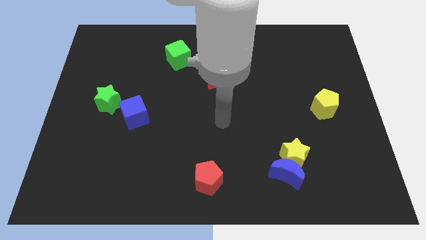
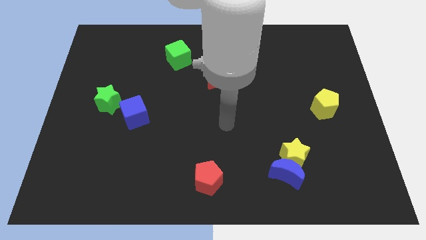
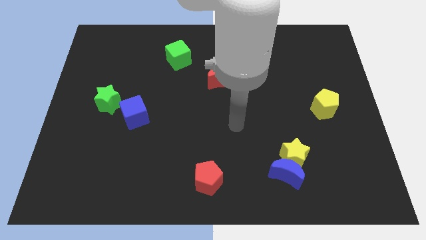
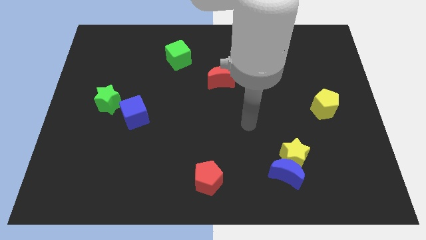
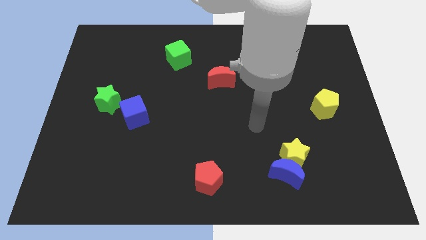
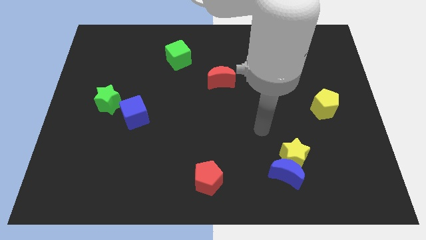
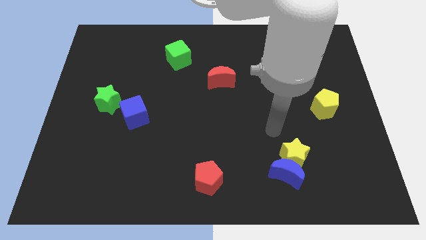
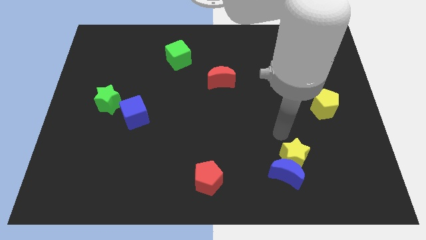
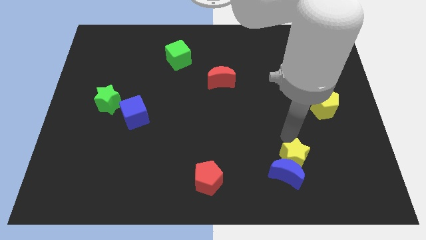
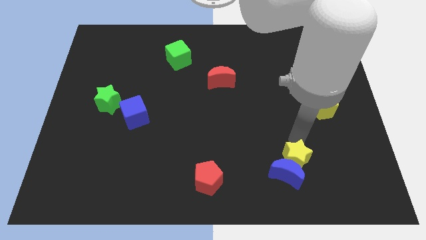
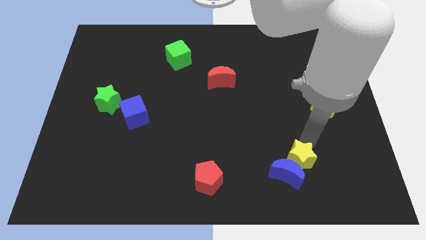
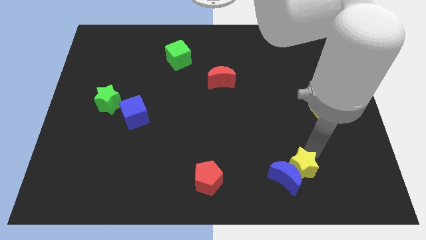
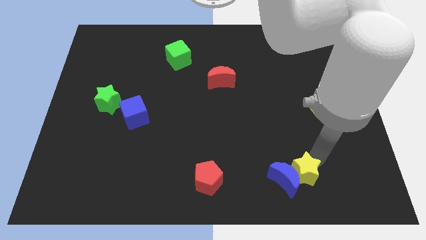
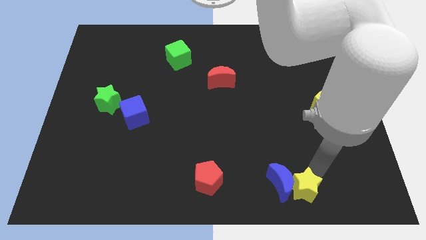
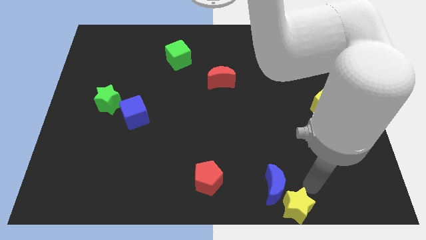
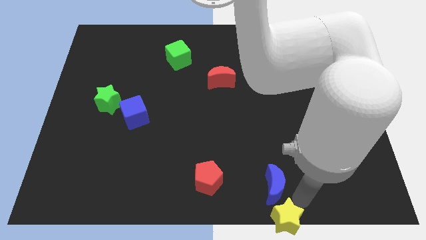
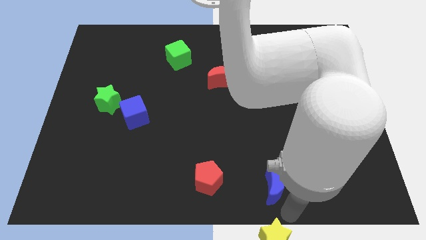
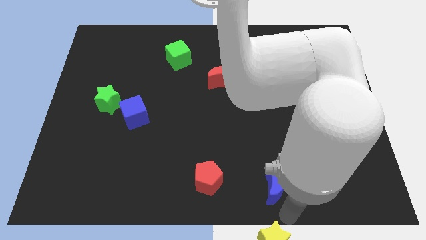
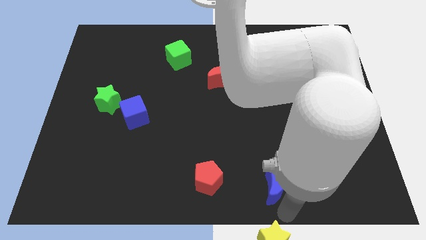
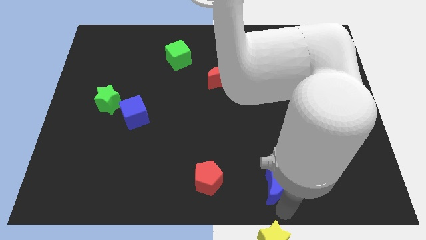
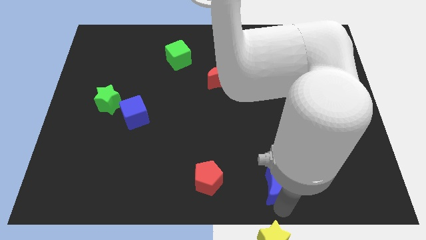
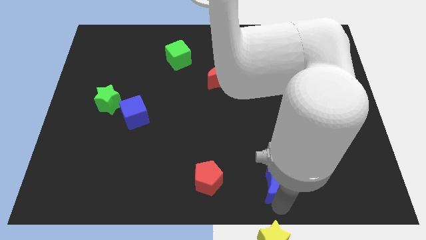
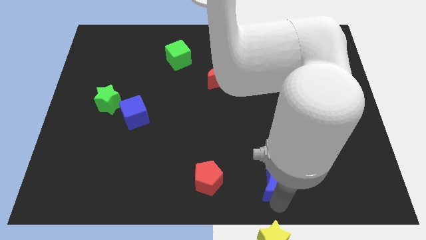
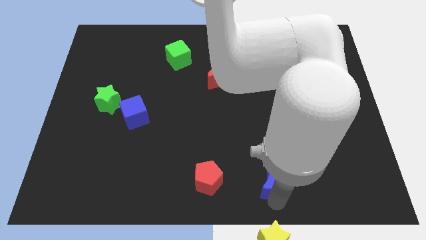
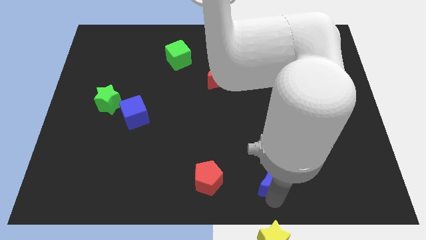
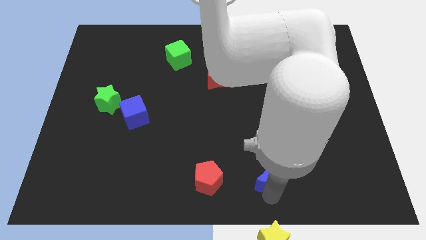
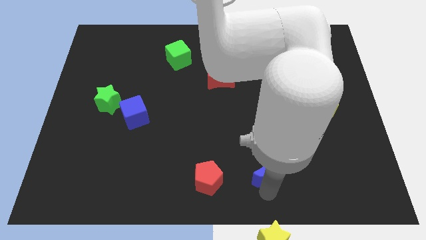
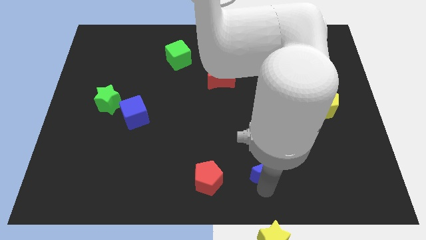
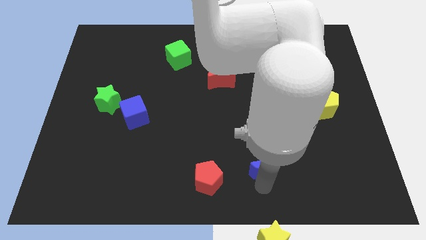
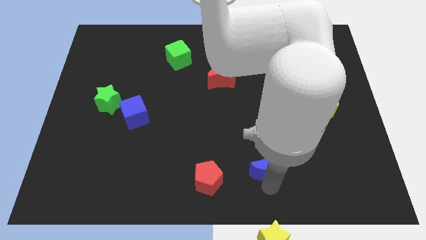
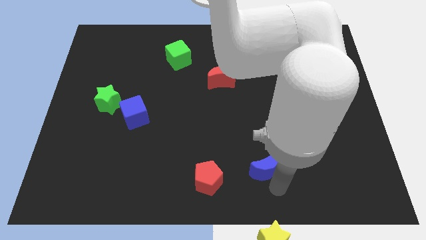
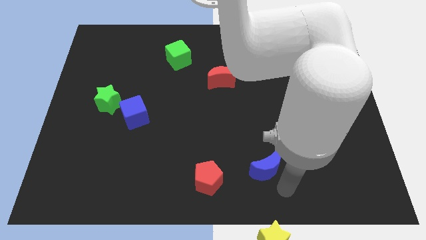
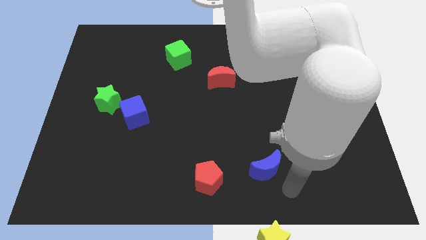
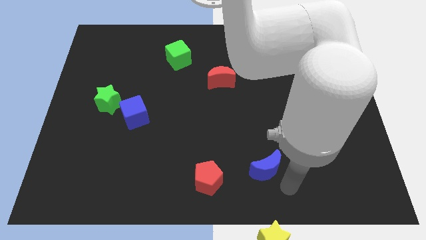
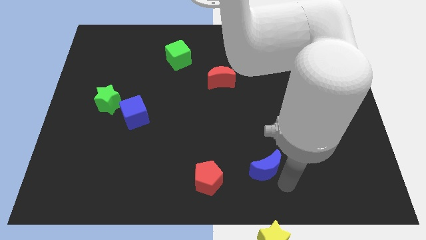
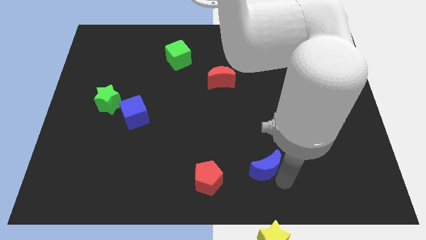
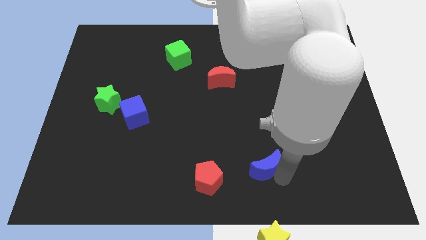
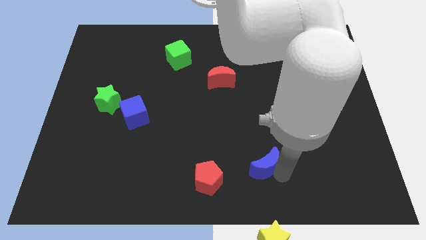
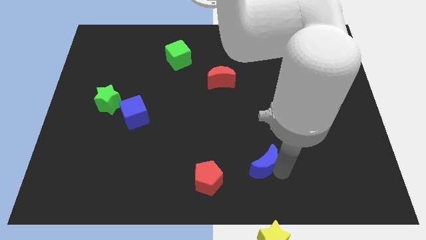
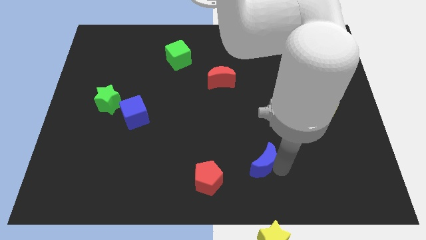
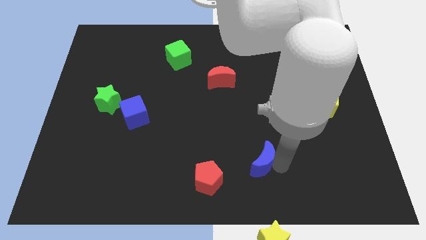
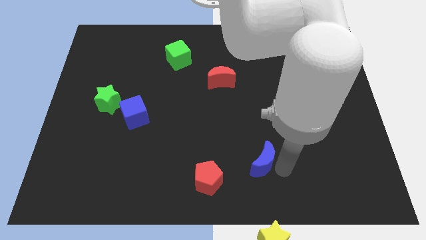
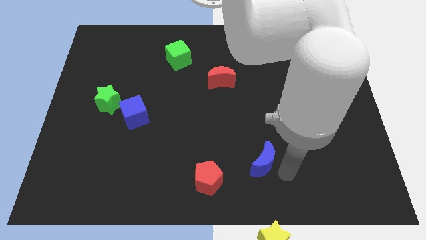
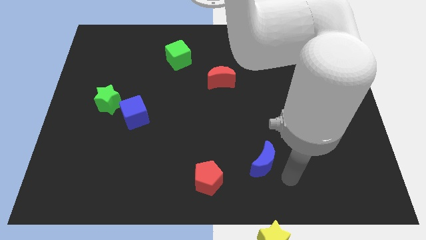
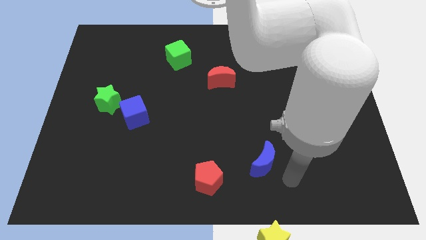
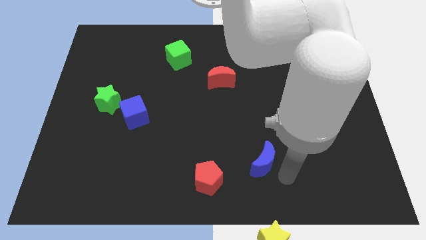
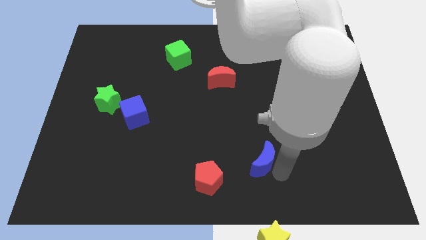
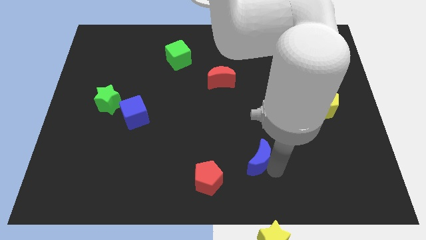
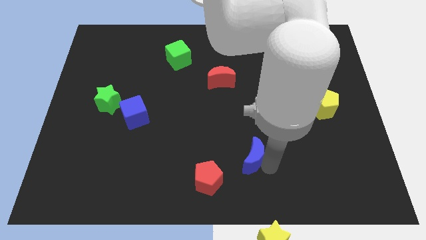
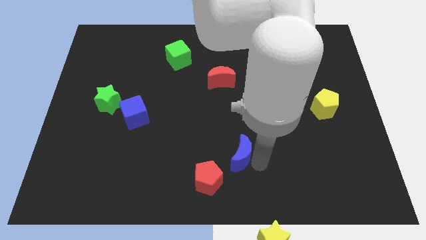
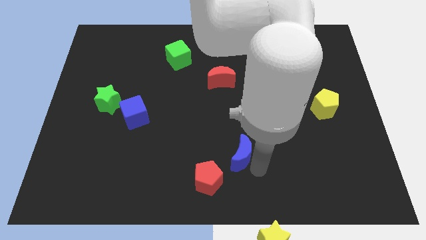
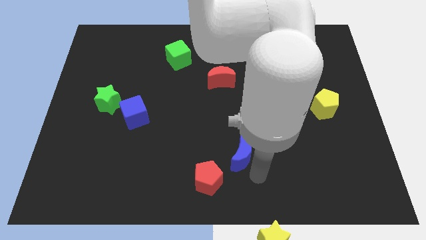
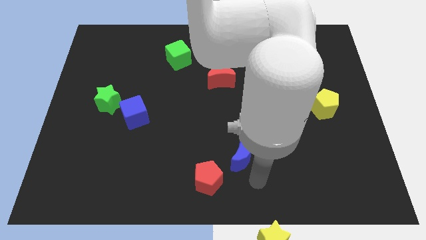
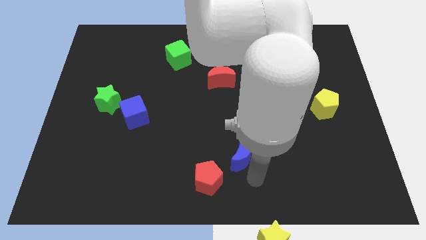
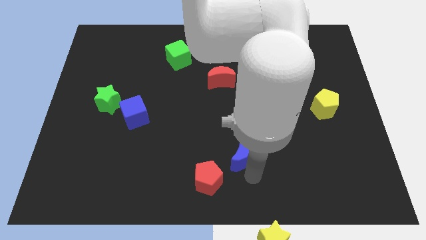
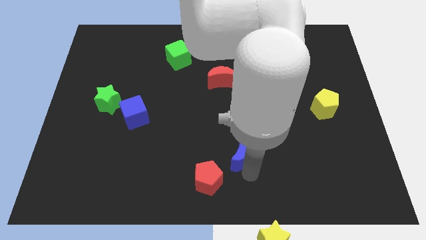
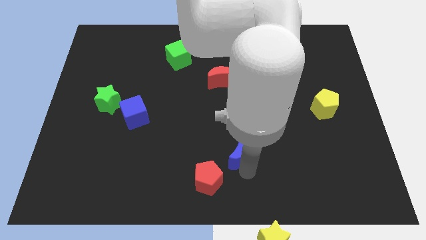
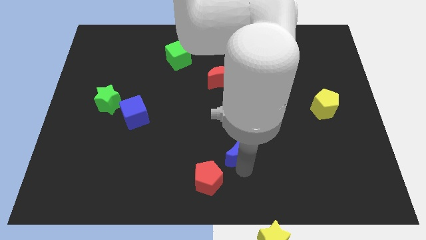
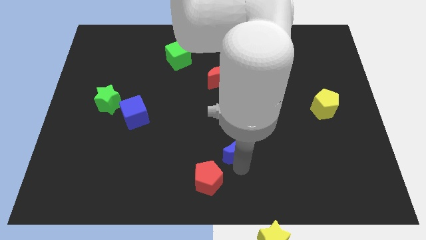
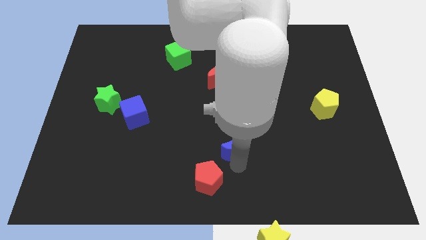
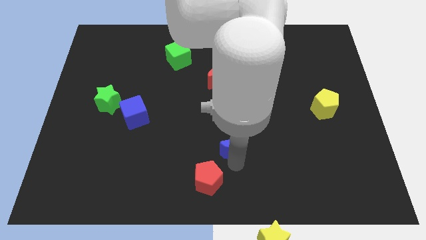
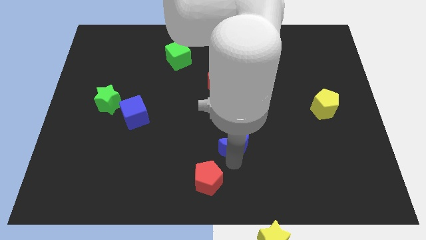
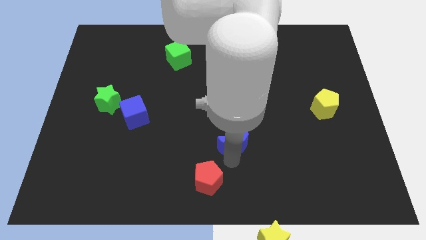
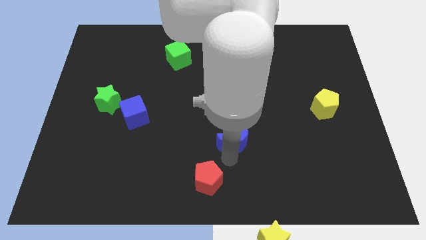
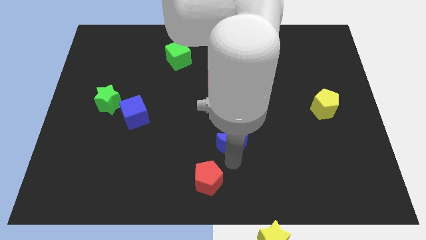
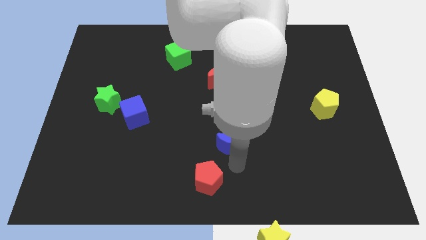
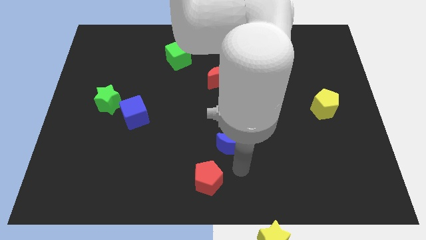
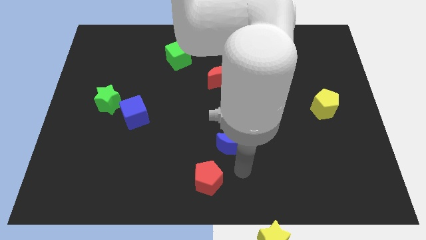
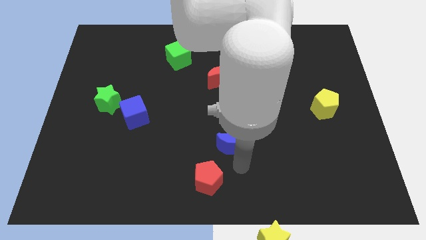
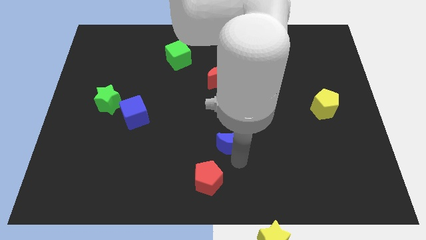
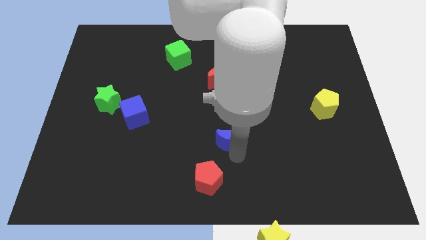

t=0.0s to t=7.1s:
push the blue moon to the middle
